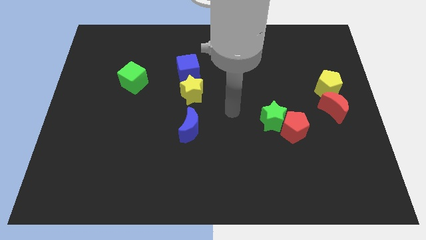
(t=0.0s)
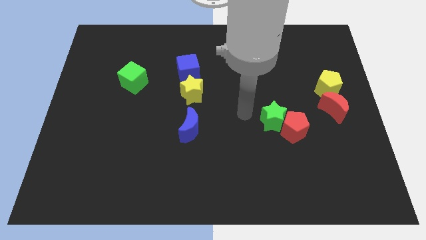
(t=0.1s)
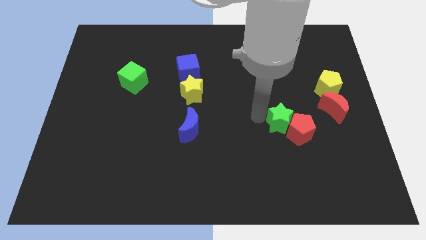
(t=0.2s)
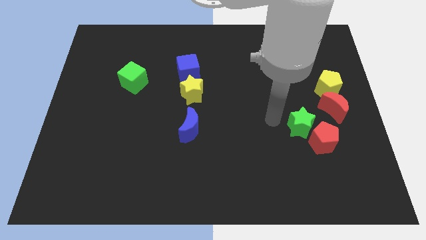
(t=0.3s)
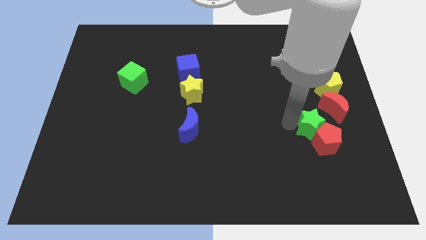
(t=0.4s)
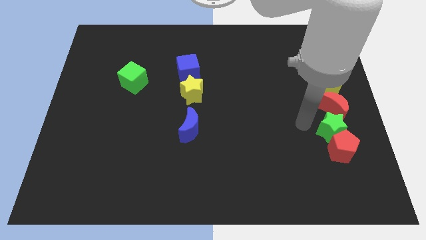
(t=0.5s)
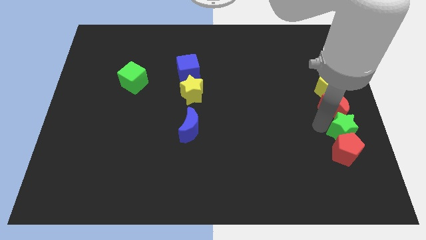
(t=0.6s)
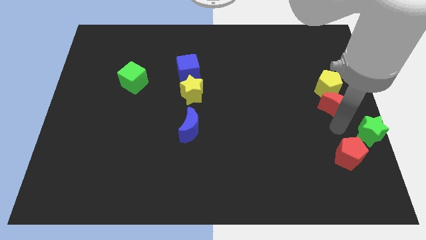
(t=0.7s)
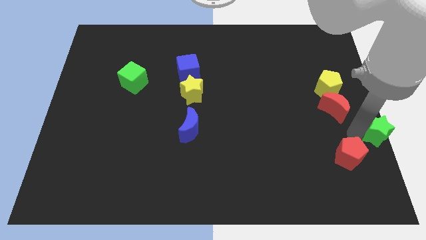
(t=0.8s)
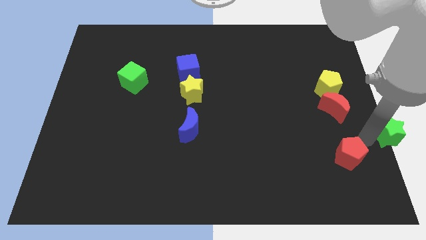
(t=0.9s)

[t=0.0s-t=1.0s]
move the red pentagon away from the green star

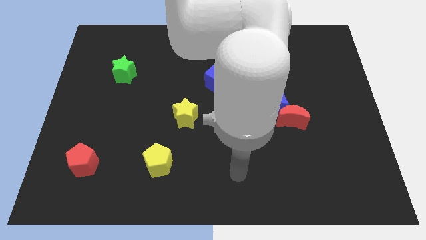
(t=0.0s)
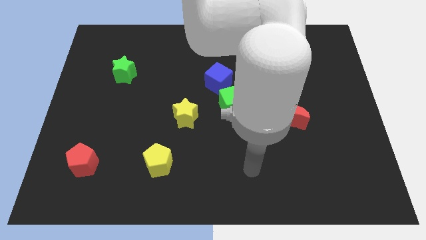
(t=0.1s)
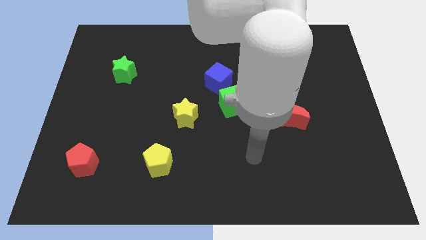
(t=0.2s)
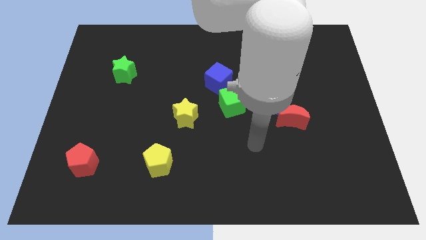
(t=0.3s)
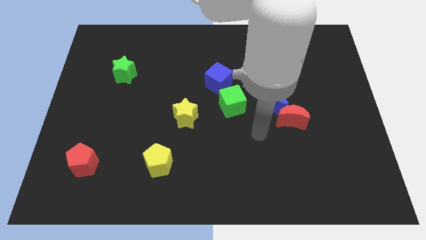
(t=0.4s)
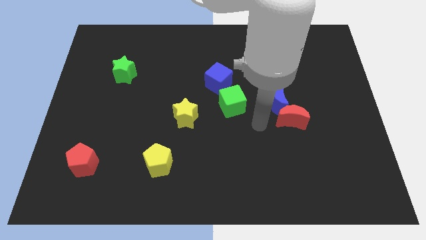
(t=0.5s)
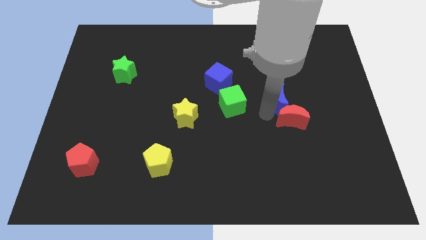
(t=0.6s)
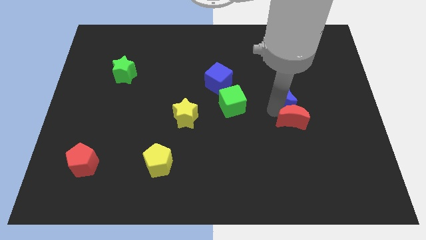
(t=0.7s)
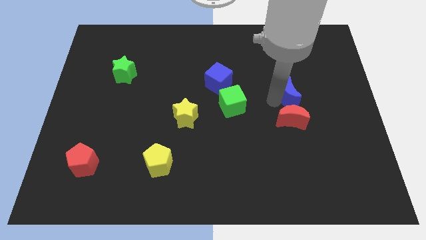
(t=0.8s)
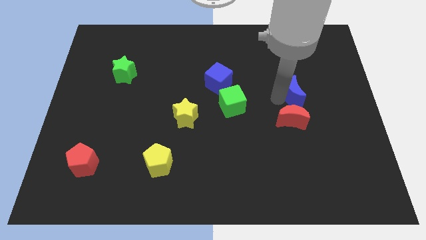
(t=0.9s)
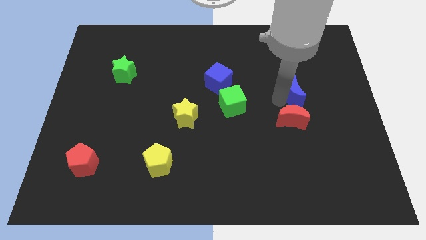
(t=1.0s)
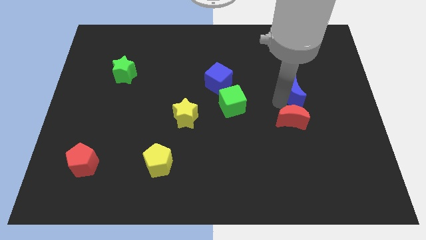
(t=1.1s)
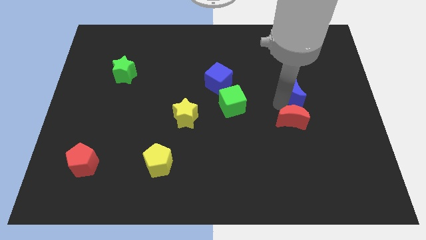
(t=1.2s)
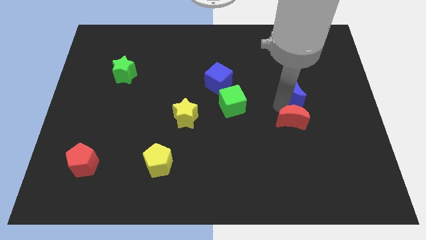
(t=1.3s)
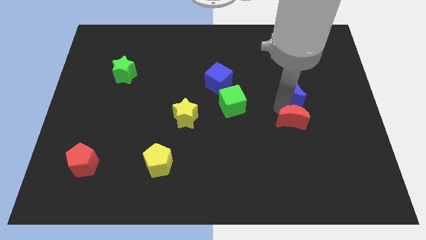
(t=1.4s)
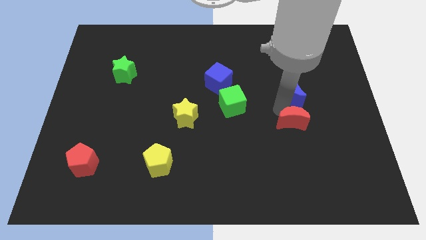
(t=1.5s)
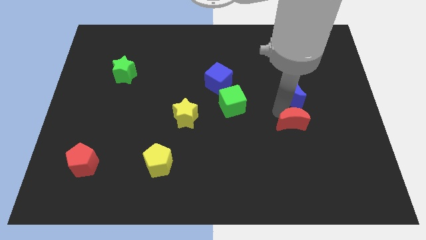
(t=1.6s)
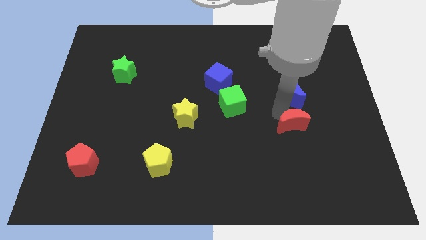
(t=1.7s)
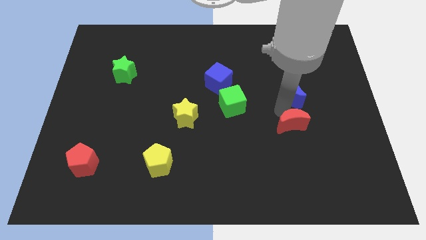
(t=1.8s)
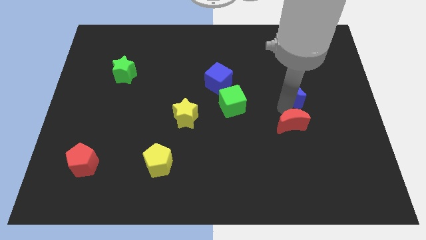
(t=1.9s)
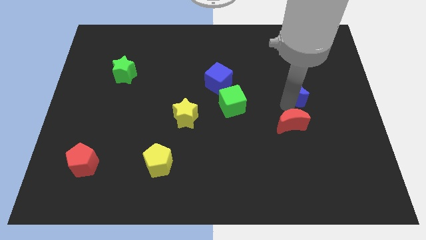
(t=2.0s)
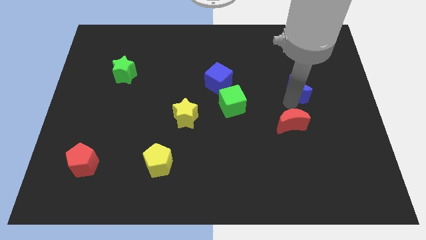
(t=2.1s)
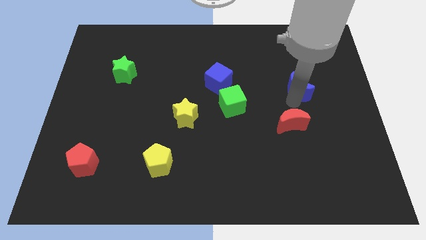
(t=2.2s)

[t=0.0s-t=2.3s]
separate the red moon from the blue moon

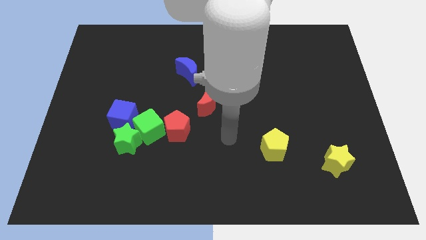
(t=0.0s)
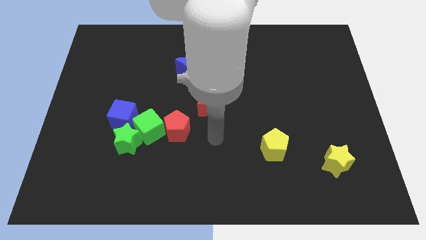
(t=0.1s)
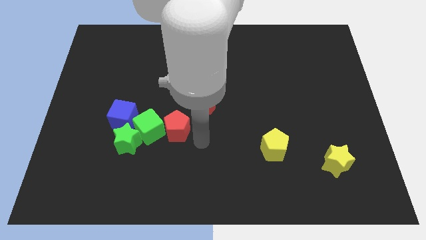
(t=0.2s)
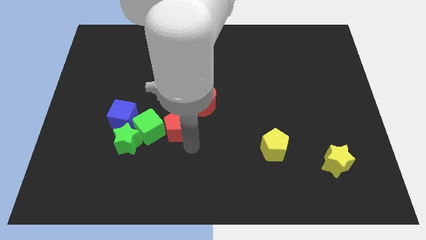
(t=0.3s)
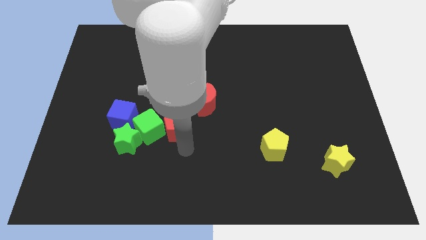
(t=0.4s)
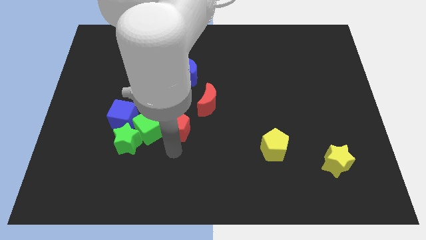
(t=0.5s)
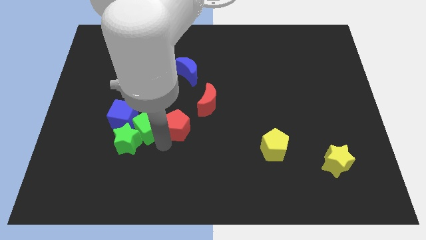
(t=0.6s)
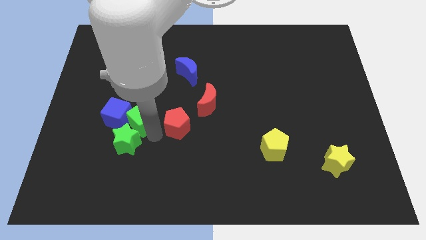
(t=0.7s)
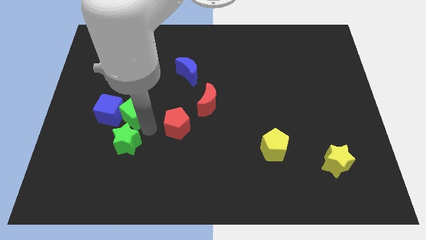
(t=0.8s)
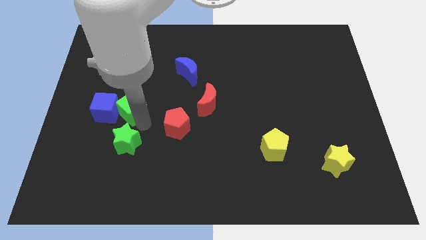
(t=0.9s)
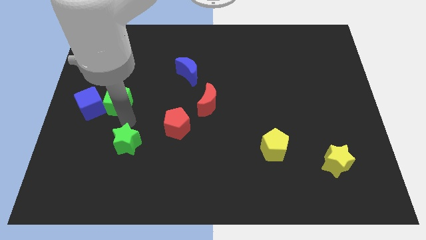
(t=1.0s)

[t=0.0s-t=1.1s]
pull the green star apart from the green cube and blue cube

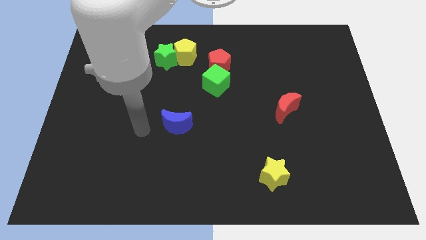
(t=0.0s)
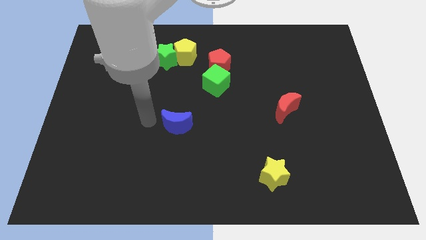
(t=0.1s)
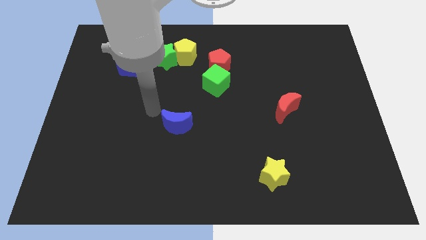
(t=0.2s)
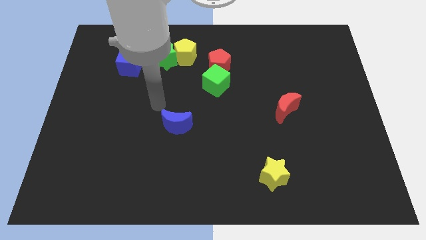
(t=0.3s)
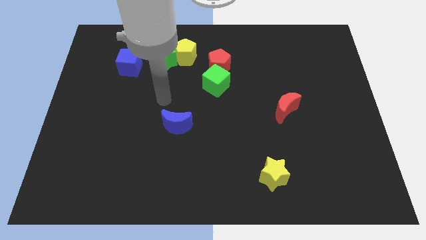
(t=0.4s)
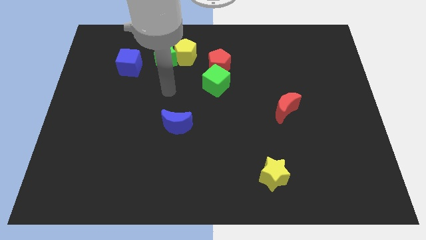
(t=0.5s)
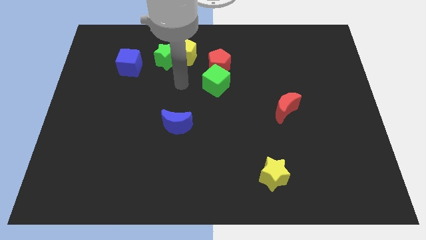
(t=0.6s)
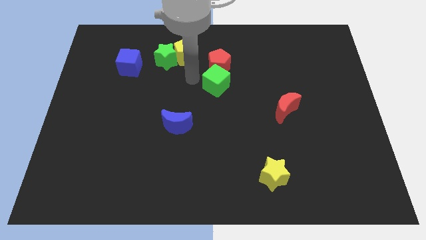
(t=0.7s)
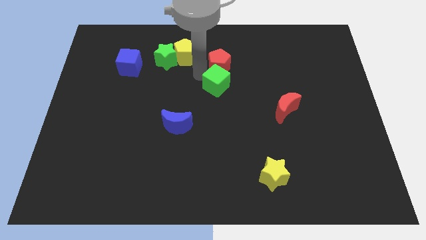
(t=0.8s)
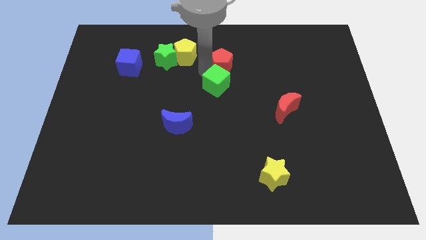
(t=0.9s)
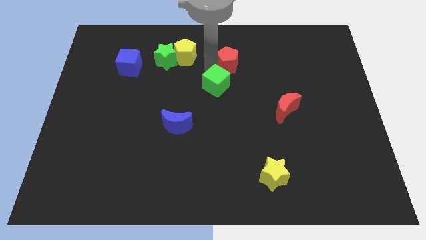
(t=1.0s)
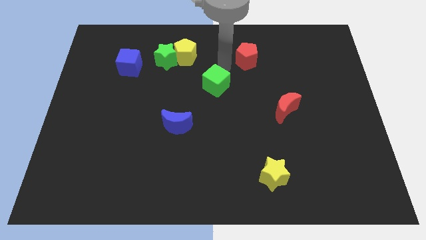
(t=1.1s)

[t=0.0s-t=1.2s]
move the green cube away from the red pentagon

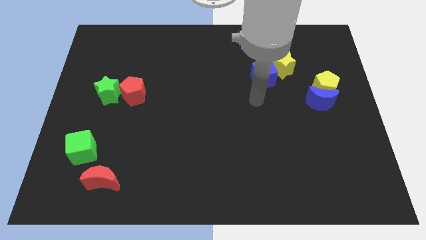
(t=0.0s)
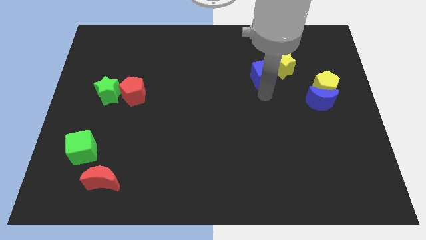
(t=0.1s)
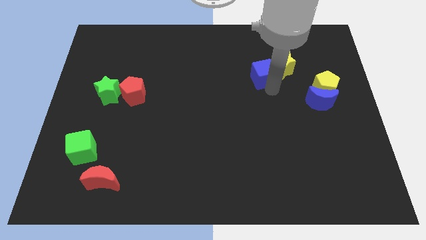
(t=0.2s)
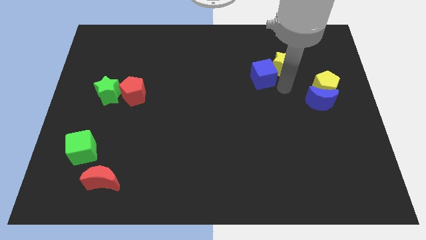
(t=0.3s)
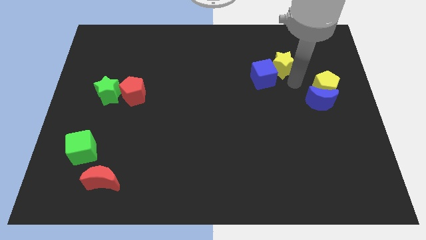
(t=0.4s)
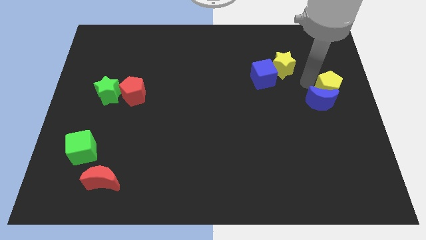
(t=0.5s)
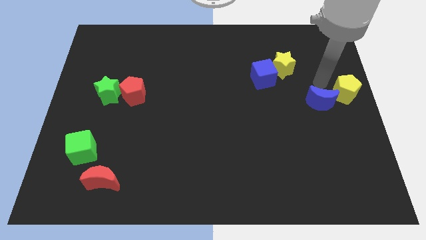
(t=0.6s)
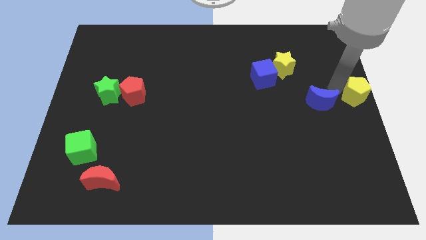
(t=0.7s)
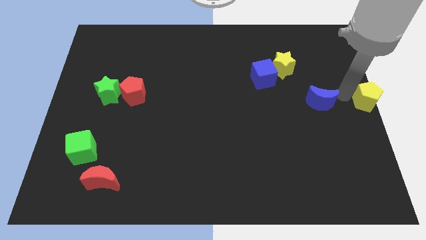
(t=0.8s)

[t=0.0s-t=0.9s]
move the blue moon away from the yellow pentagon

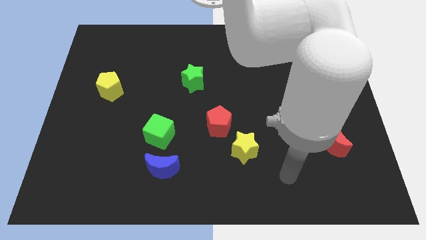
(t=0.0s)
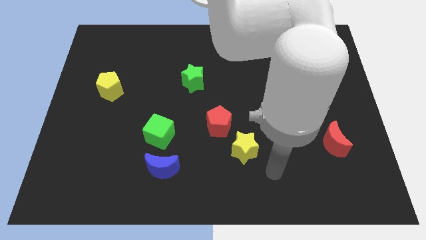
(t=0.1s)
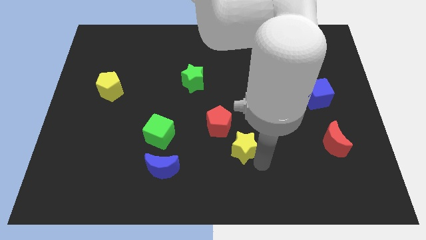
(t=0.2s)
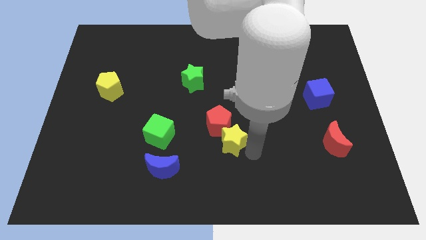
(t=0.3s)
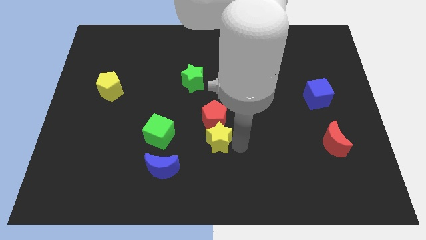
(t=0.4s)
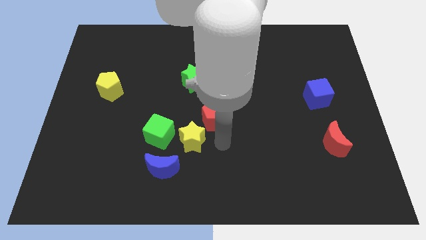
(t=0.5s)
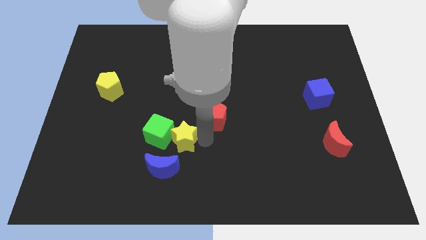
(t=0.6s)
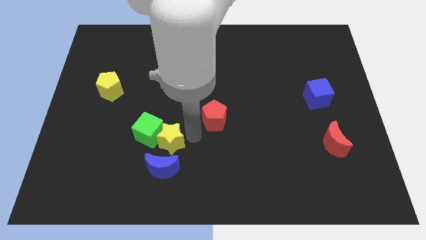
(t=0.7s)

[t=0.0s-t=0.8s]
separate the red pentagon from the yellow star

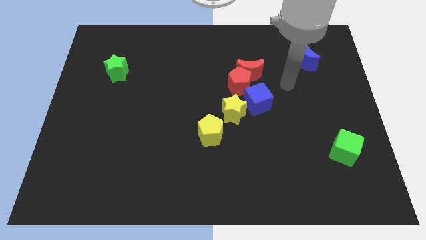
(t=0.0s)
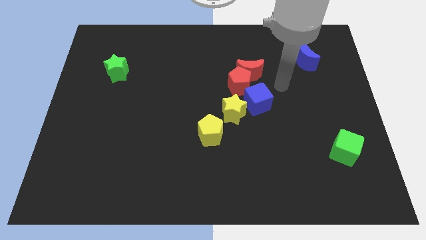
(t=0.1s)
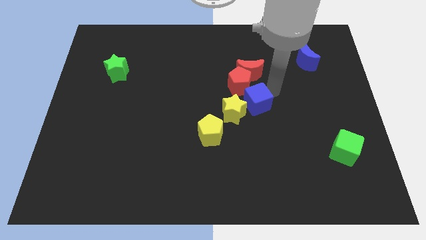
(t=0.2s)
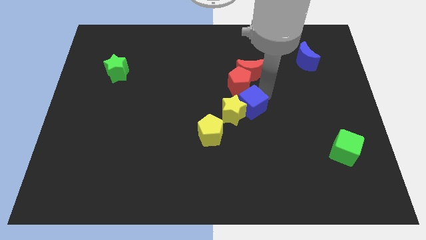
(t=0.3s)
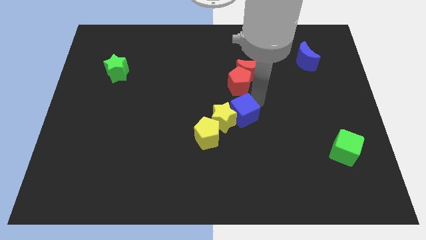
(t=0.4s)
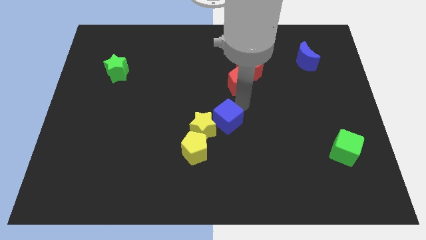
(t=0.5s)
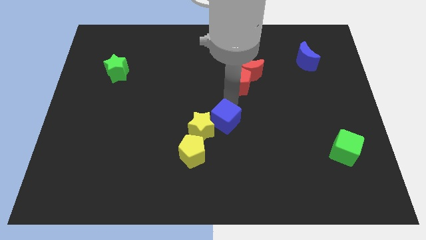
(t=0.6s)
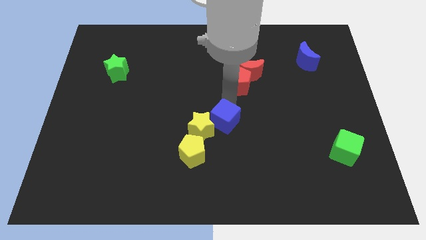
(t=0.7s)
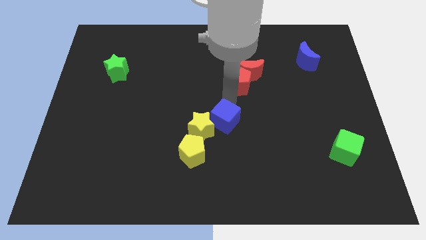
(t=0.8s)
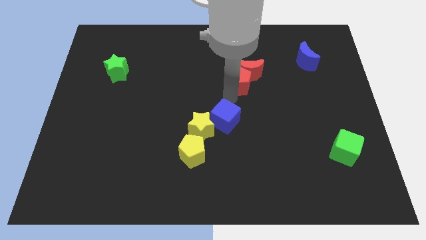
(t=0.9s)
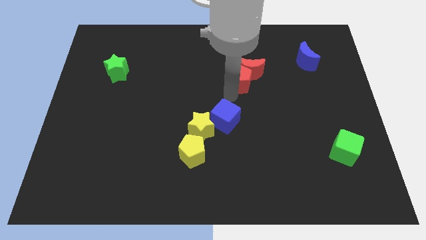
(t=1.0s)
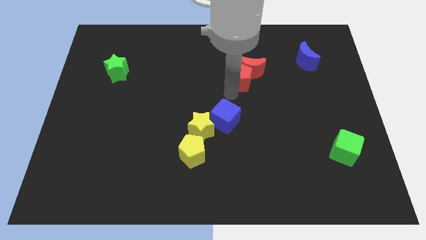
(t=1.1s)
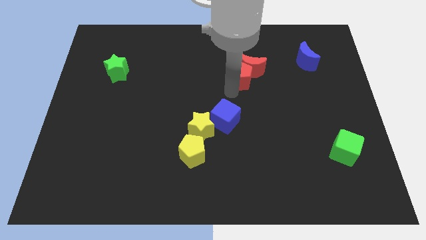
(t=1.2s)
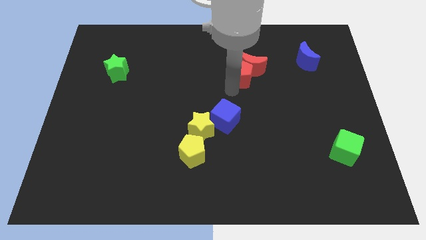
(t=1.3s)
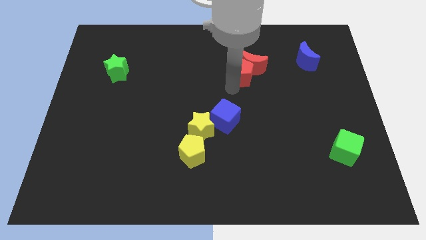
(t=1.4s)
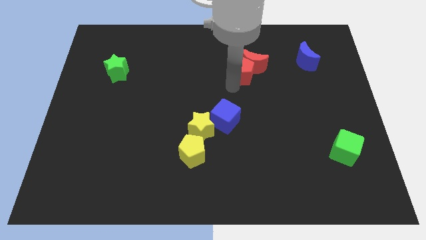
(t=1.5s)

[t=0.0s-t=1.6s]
pull the red pentagon apart from the group of blocks

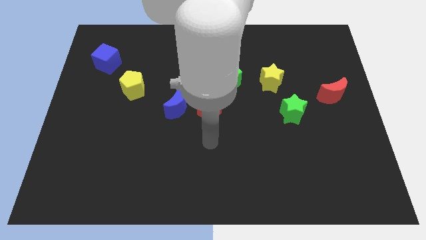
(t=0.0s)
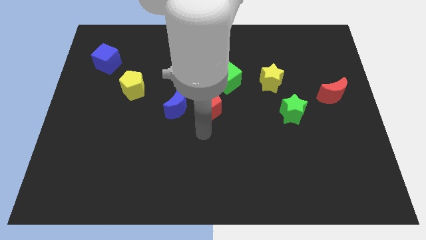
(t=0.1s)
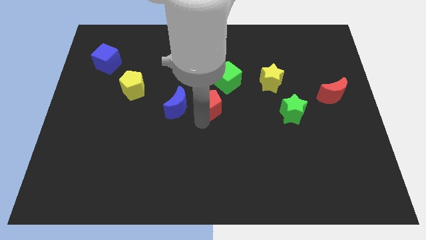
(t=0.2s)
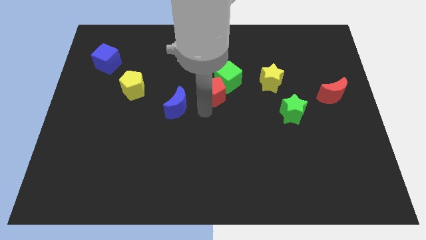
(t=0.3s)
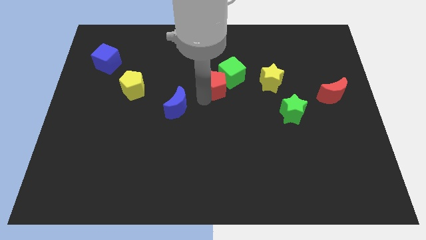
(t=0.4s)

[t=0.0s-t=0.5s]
move the blue moon away from the red pentagon
